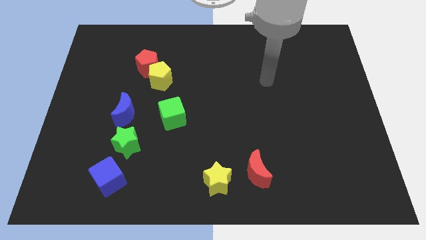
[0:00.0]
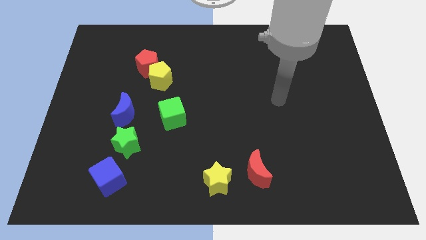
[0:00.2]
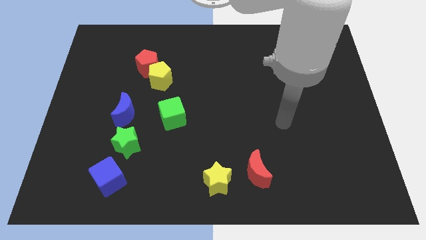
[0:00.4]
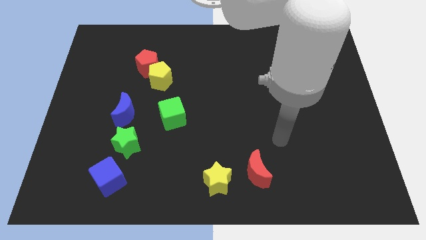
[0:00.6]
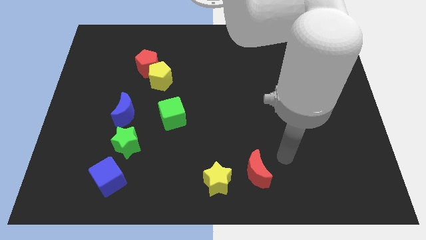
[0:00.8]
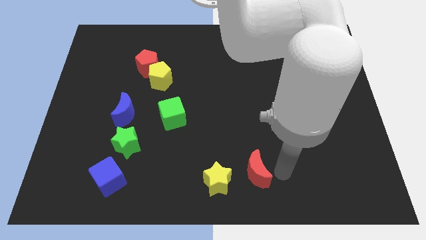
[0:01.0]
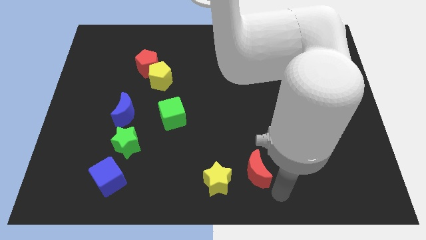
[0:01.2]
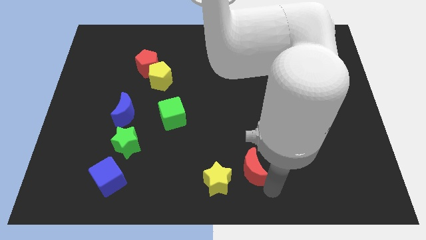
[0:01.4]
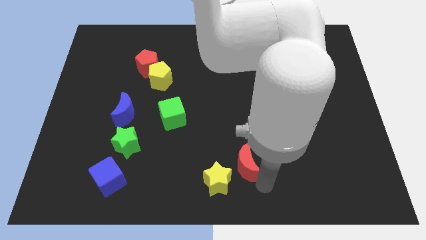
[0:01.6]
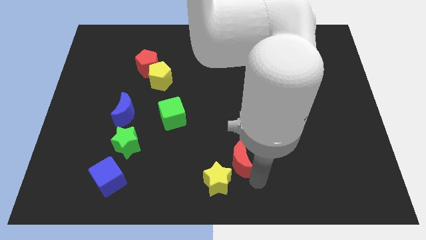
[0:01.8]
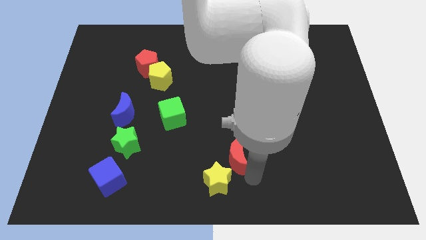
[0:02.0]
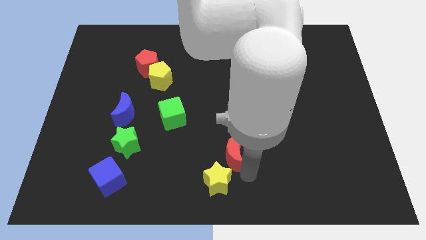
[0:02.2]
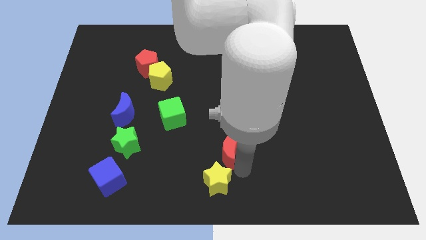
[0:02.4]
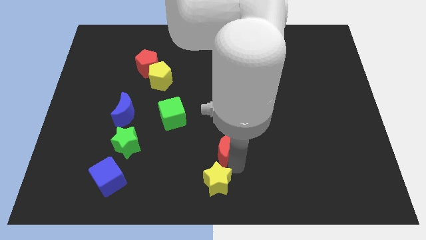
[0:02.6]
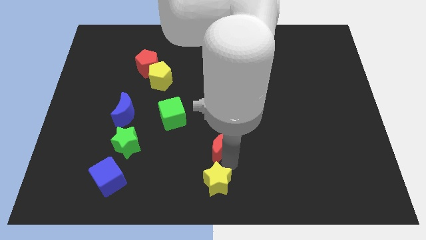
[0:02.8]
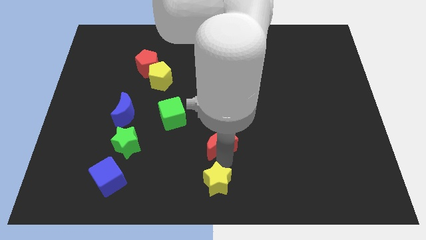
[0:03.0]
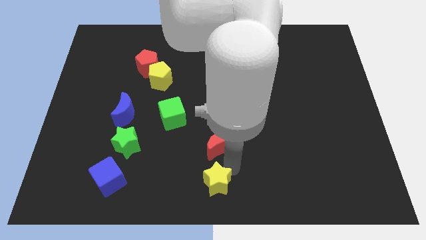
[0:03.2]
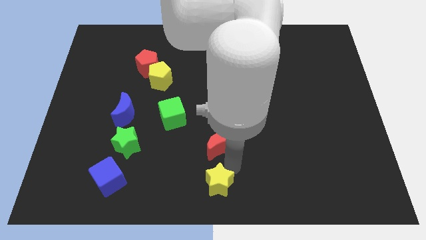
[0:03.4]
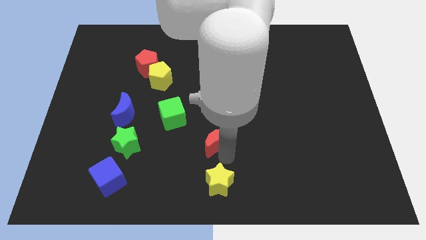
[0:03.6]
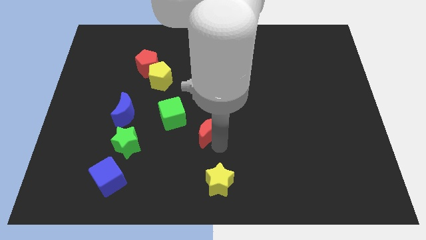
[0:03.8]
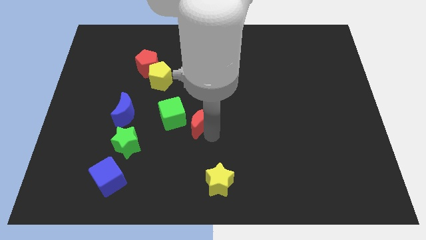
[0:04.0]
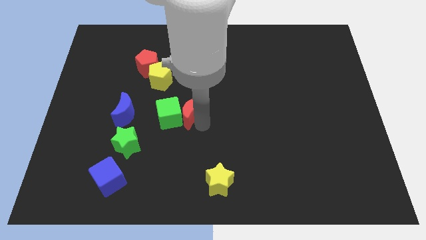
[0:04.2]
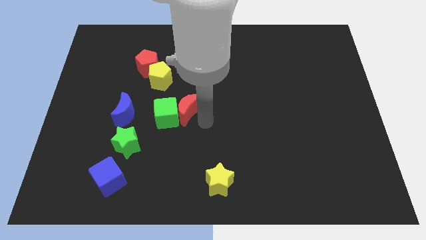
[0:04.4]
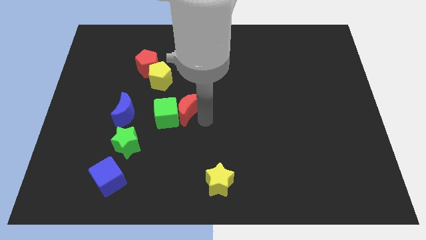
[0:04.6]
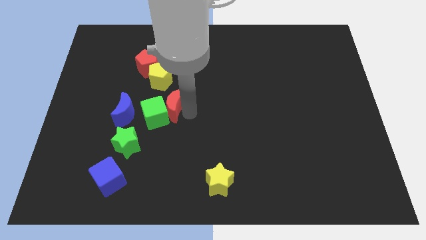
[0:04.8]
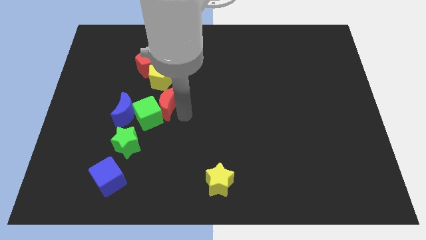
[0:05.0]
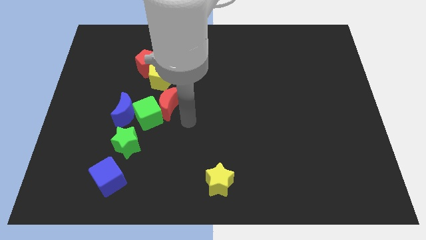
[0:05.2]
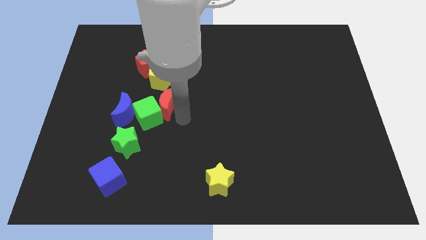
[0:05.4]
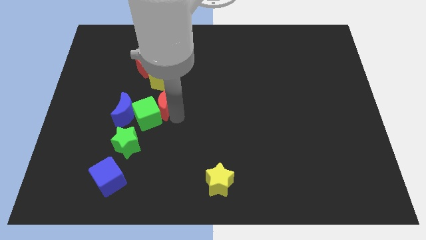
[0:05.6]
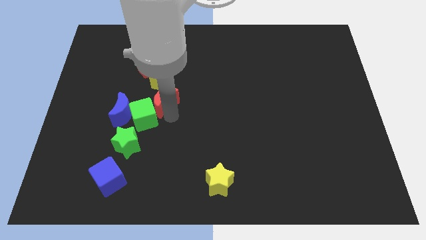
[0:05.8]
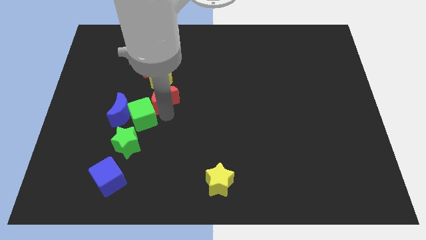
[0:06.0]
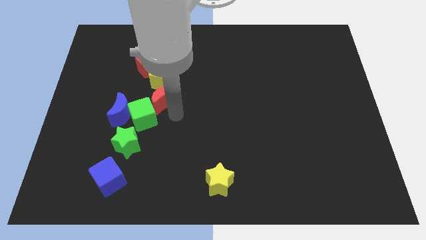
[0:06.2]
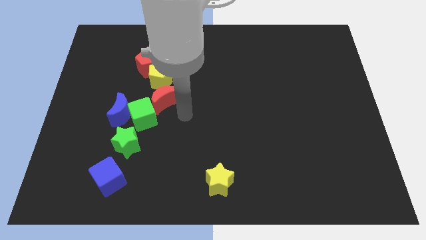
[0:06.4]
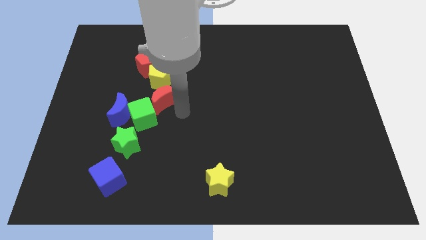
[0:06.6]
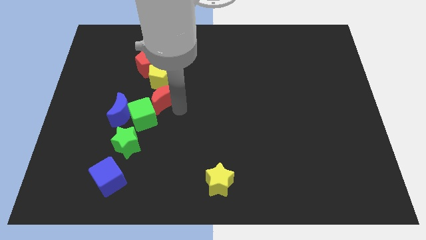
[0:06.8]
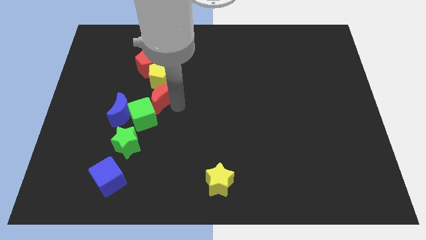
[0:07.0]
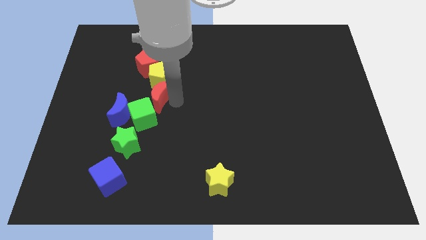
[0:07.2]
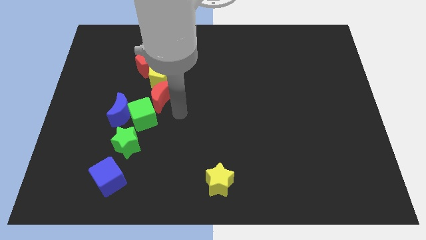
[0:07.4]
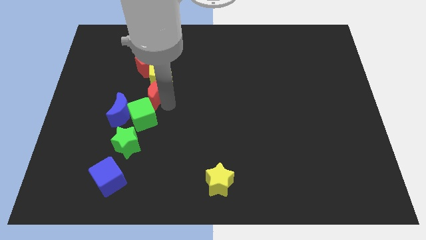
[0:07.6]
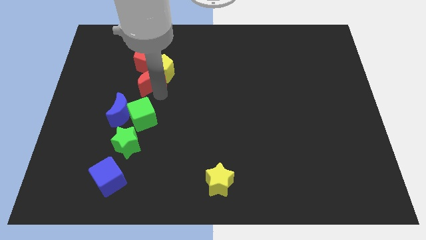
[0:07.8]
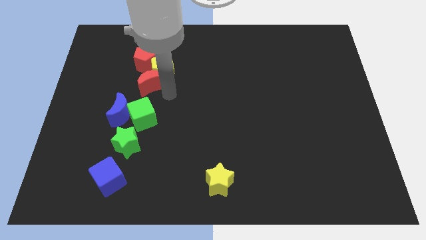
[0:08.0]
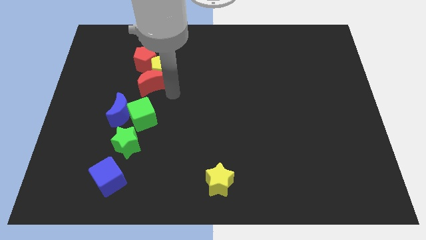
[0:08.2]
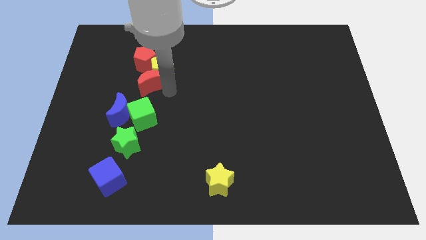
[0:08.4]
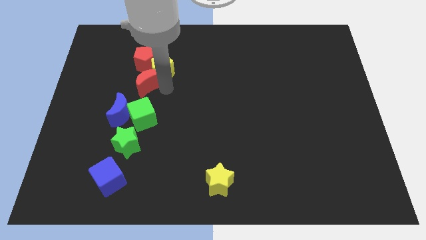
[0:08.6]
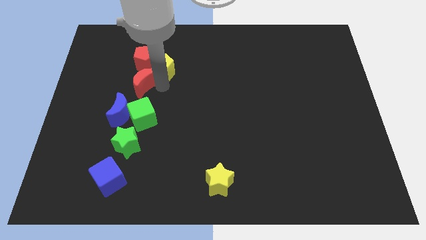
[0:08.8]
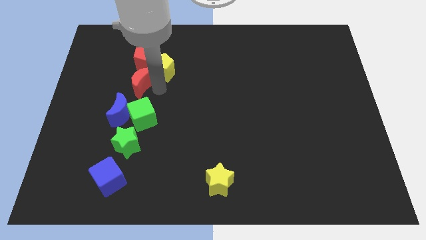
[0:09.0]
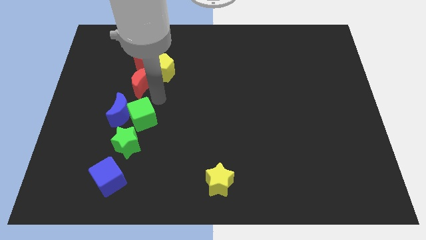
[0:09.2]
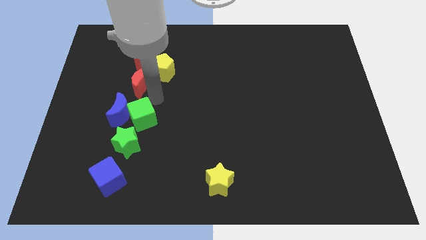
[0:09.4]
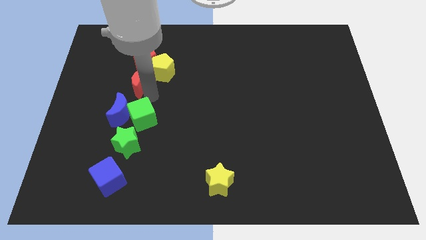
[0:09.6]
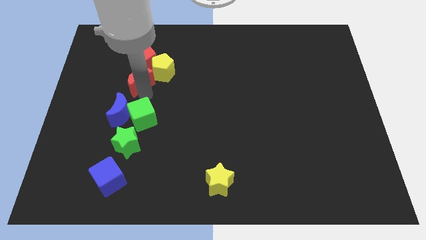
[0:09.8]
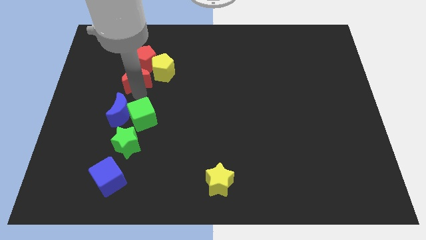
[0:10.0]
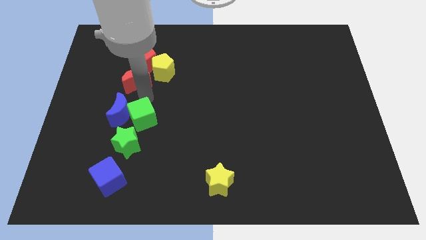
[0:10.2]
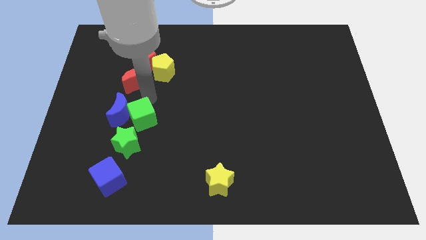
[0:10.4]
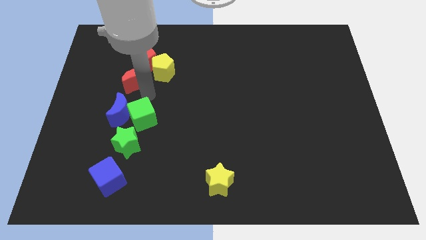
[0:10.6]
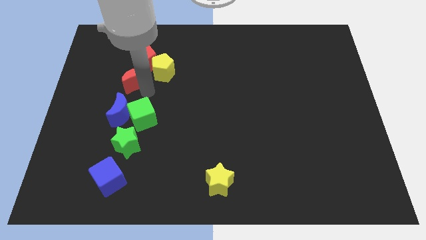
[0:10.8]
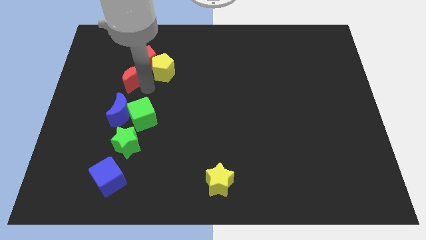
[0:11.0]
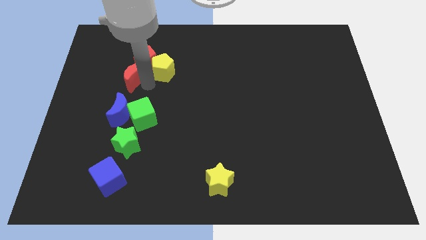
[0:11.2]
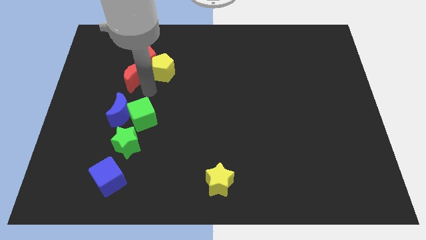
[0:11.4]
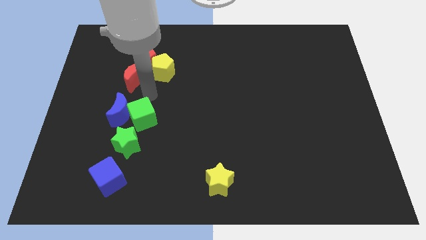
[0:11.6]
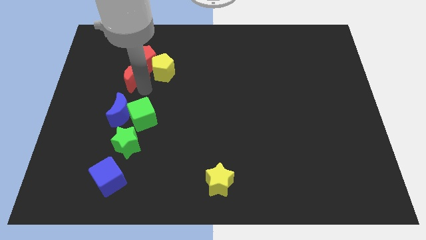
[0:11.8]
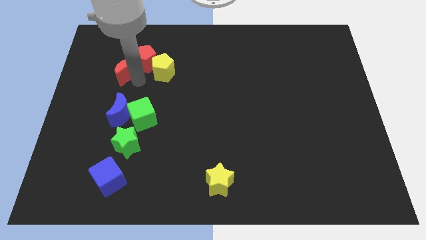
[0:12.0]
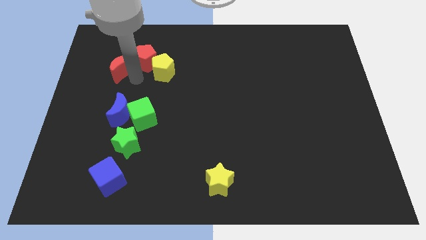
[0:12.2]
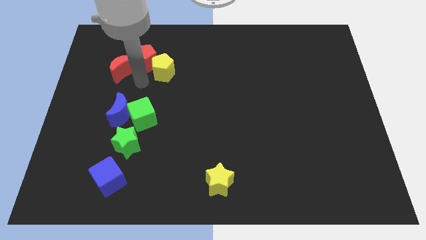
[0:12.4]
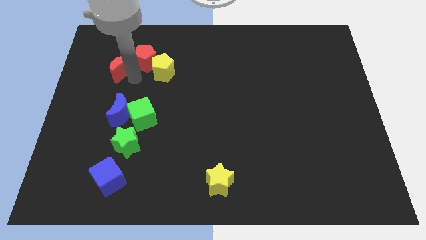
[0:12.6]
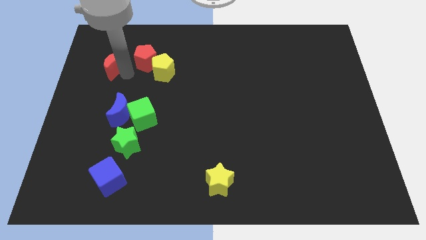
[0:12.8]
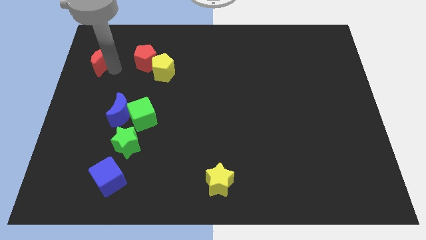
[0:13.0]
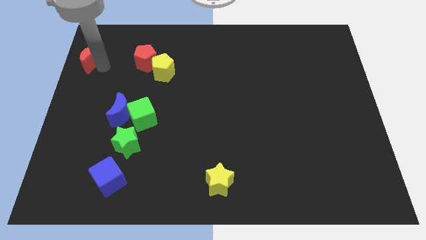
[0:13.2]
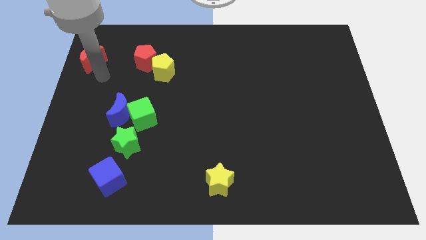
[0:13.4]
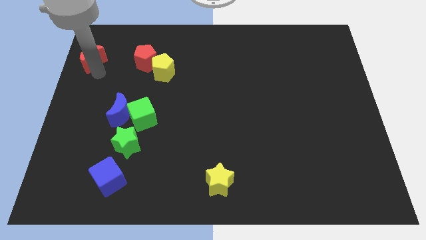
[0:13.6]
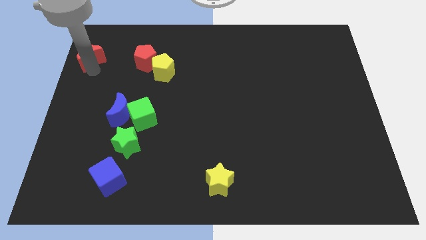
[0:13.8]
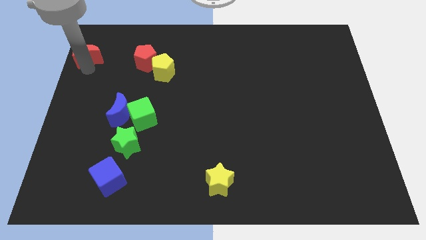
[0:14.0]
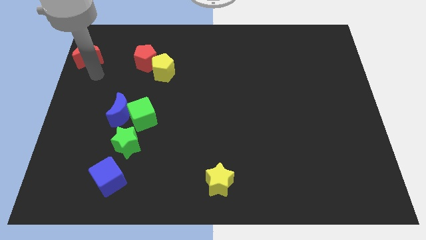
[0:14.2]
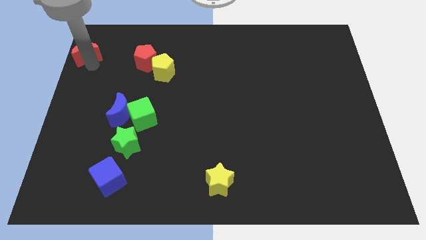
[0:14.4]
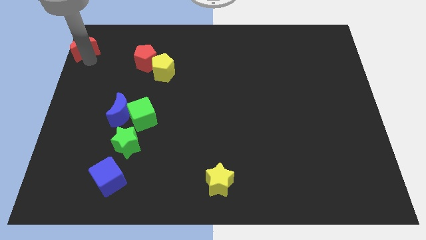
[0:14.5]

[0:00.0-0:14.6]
put the red moon to the upper left corner
